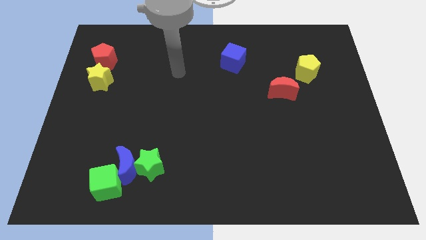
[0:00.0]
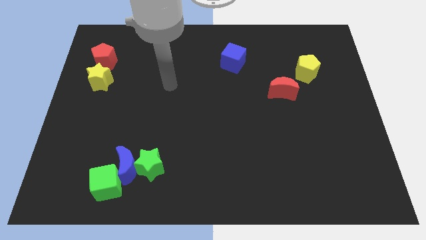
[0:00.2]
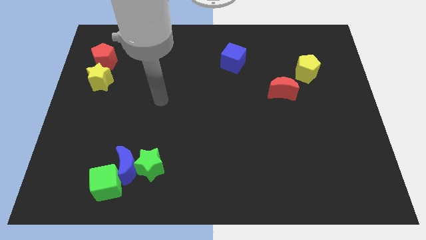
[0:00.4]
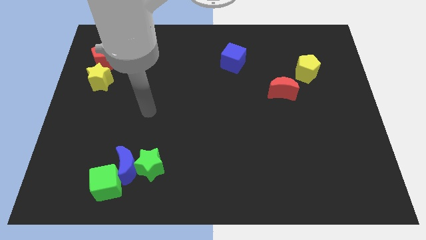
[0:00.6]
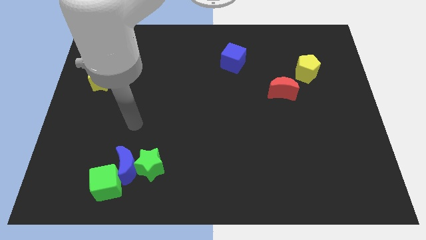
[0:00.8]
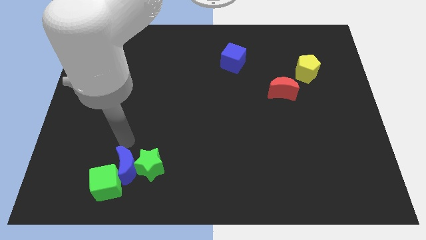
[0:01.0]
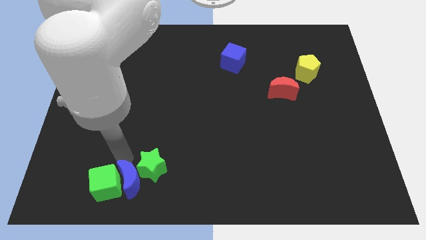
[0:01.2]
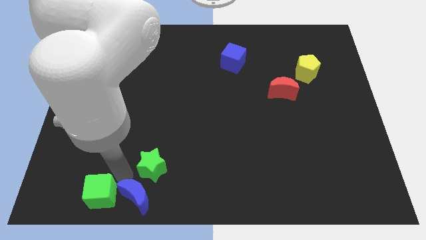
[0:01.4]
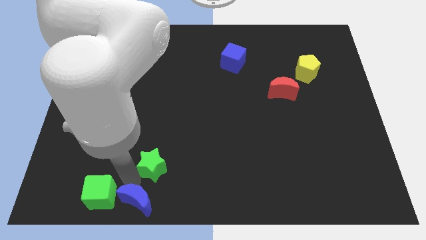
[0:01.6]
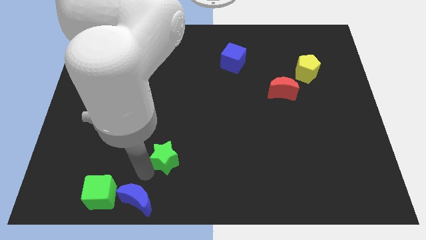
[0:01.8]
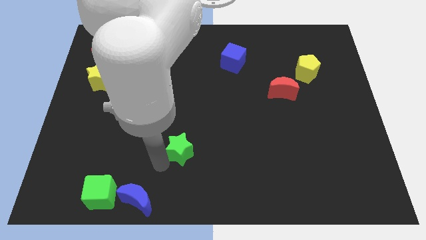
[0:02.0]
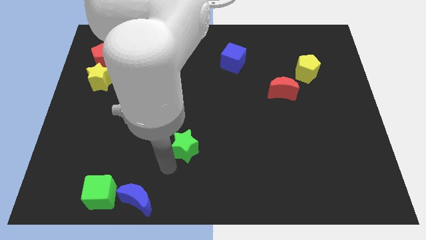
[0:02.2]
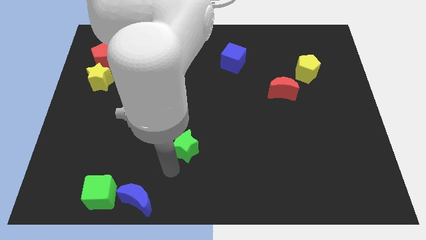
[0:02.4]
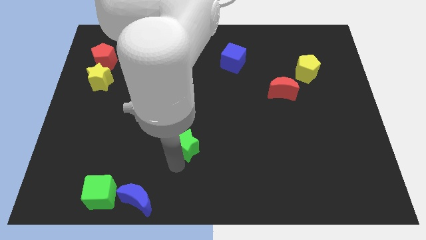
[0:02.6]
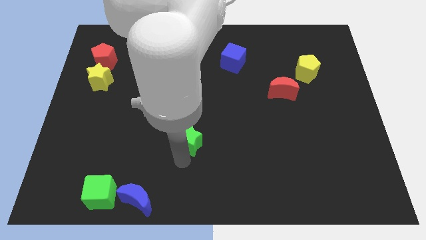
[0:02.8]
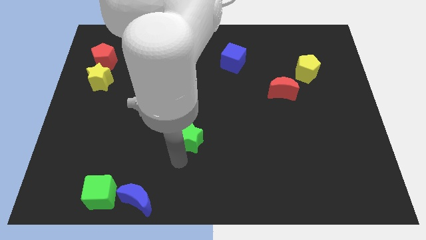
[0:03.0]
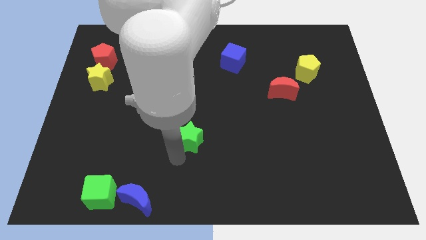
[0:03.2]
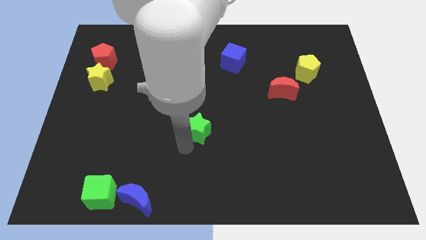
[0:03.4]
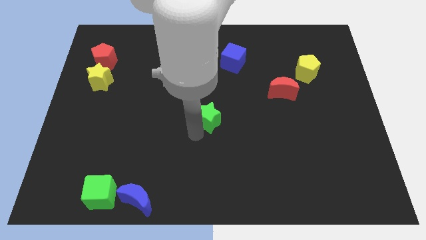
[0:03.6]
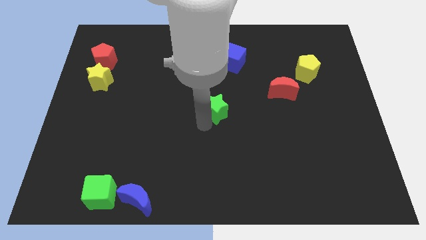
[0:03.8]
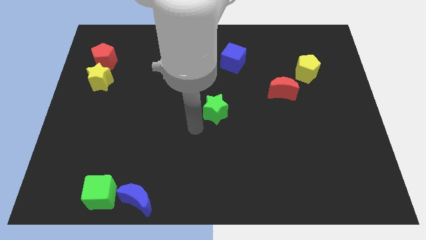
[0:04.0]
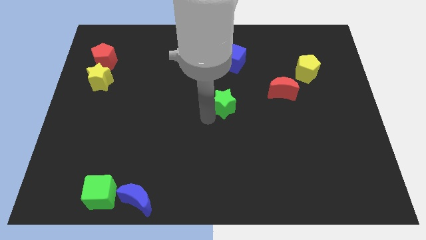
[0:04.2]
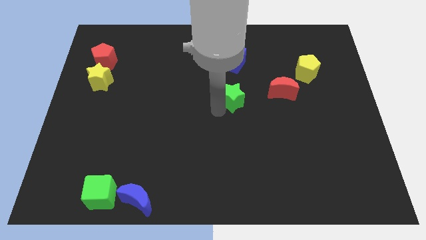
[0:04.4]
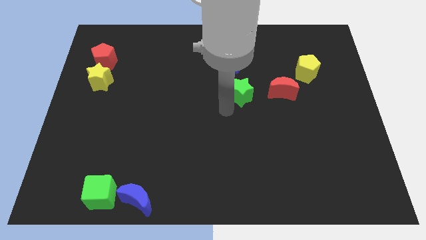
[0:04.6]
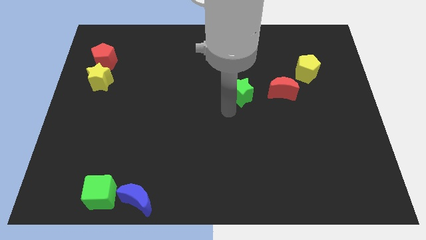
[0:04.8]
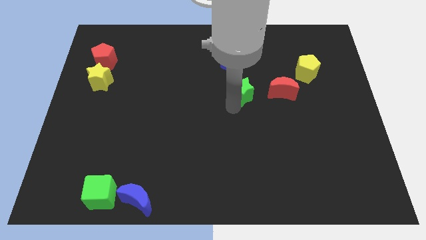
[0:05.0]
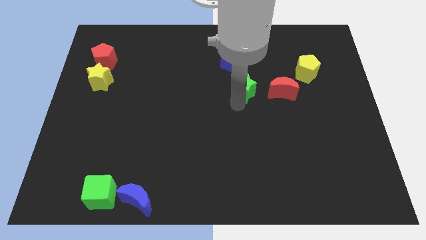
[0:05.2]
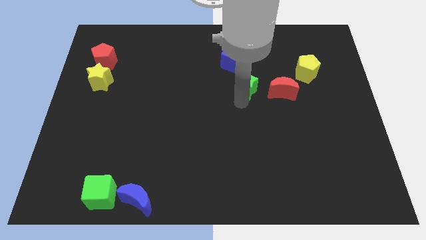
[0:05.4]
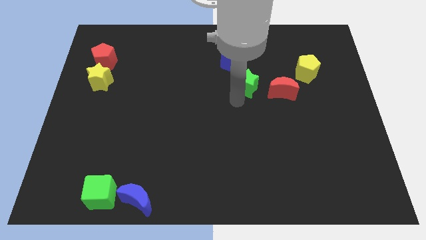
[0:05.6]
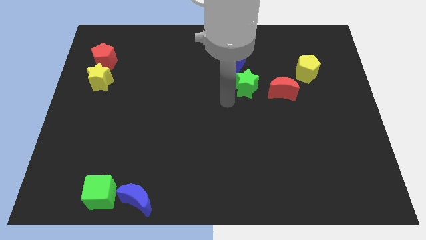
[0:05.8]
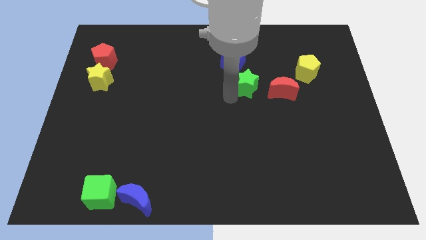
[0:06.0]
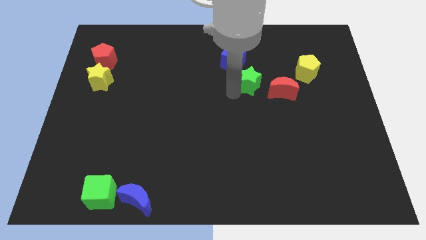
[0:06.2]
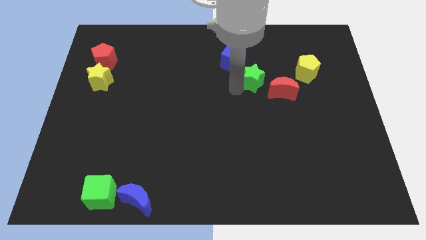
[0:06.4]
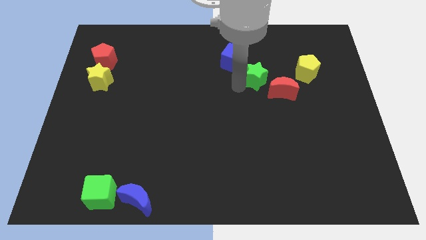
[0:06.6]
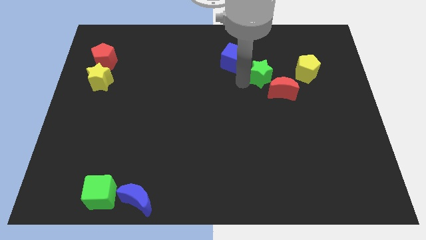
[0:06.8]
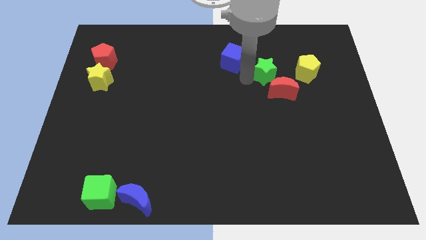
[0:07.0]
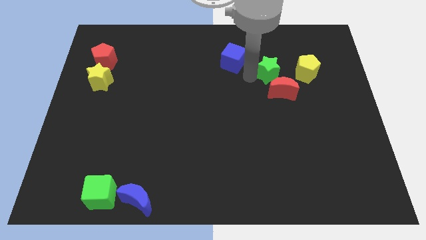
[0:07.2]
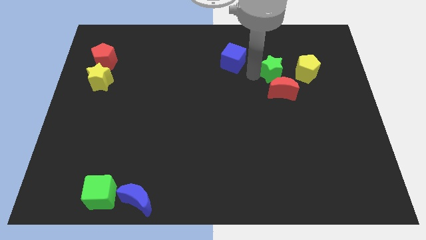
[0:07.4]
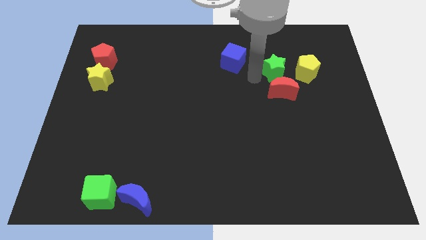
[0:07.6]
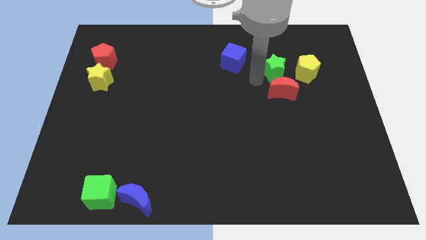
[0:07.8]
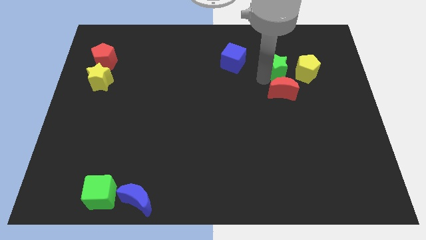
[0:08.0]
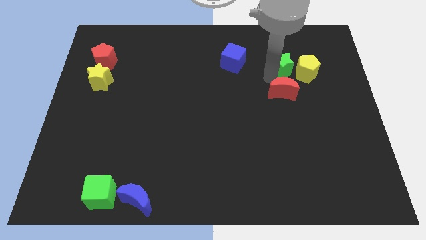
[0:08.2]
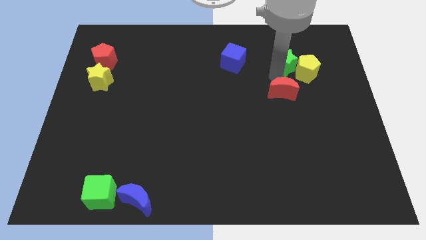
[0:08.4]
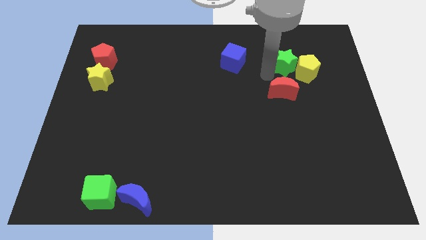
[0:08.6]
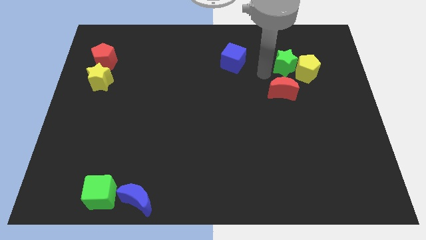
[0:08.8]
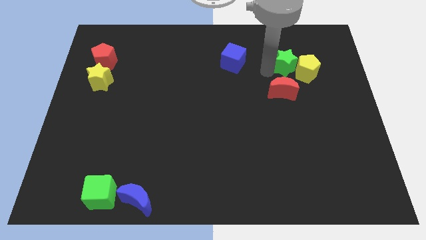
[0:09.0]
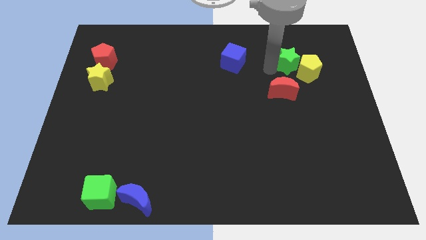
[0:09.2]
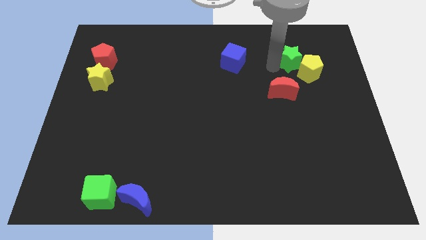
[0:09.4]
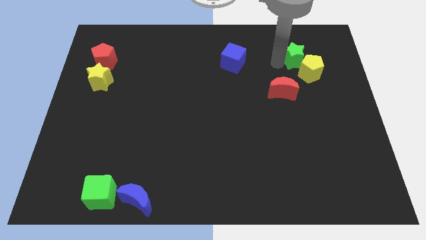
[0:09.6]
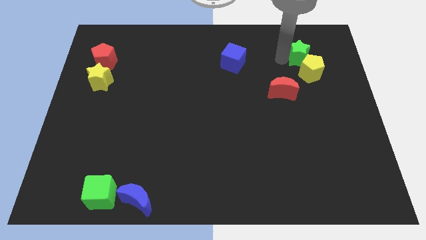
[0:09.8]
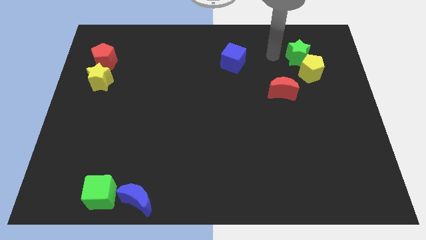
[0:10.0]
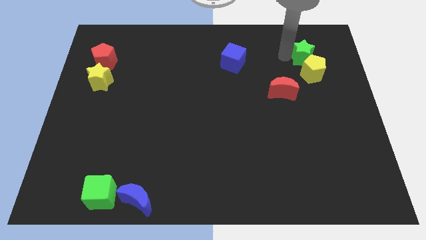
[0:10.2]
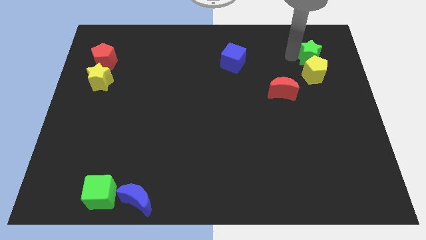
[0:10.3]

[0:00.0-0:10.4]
slide the green star to the top right of the yellow pentagon

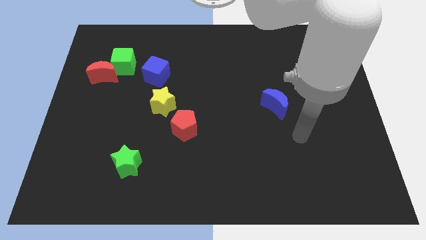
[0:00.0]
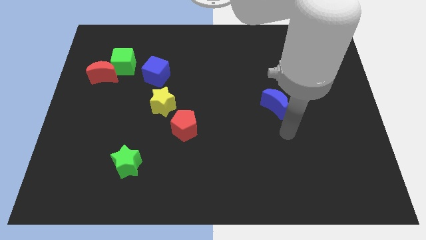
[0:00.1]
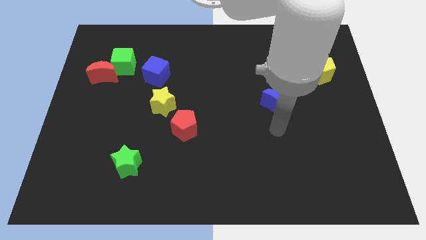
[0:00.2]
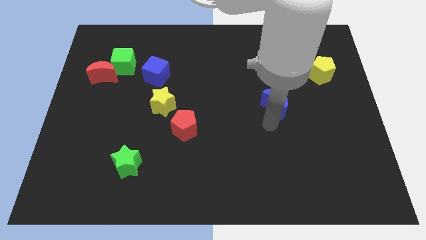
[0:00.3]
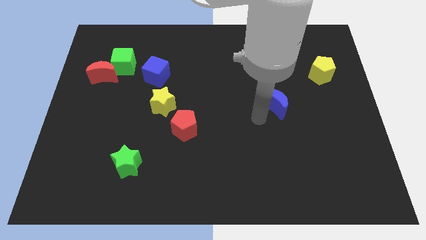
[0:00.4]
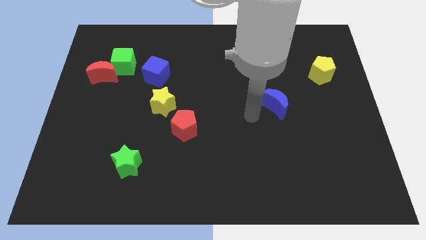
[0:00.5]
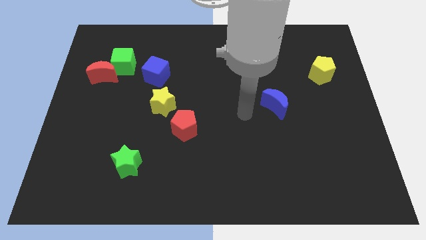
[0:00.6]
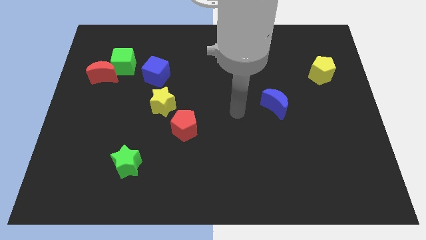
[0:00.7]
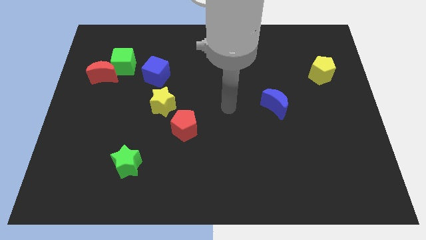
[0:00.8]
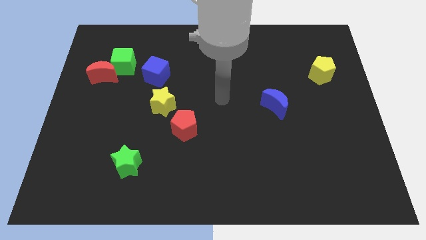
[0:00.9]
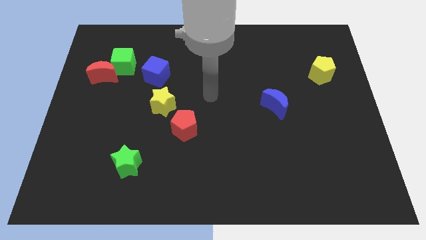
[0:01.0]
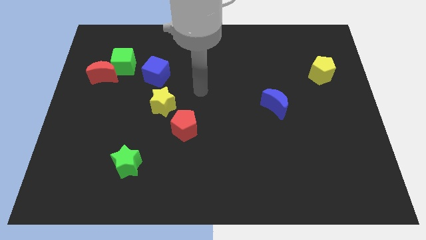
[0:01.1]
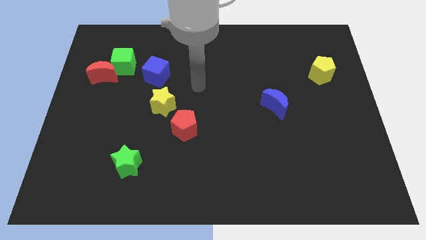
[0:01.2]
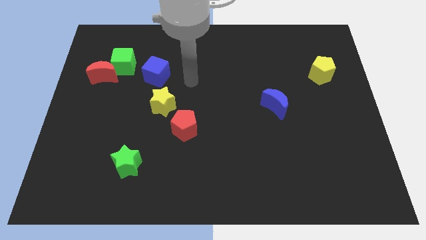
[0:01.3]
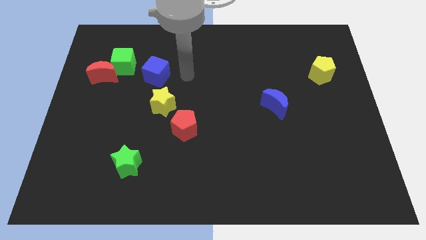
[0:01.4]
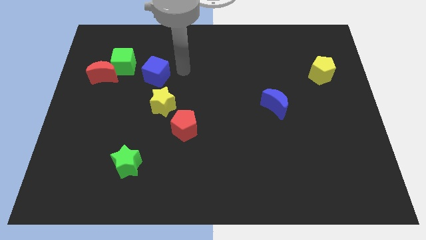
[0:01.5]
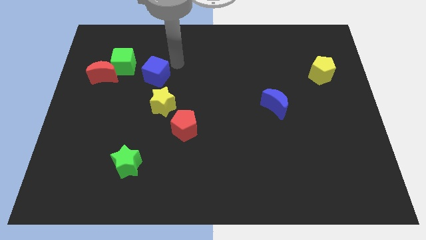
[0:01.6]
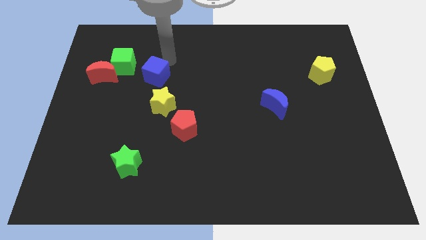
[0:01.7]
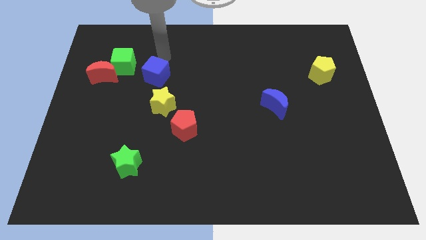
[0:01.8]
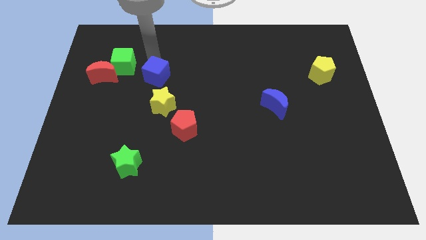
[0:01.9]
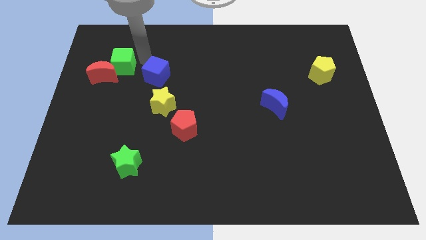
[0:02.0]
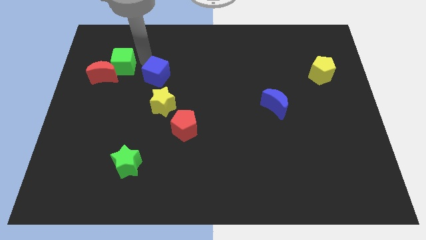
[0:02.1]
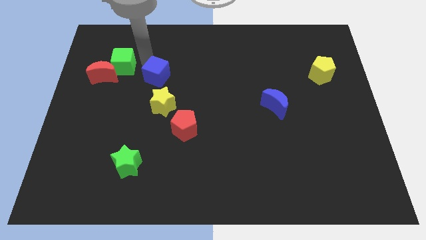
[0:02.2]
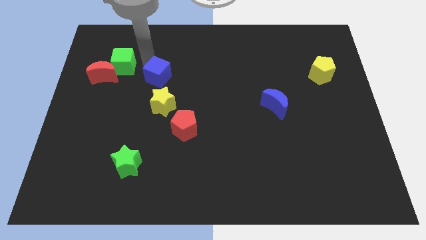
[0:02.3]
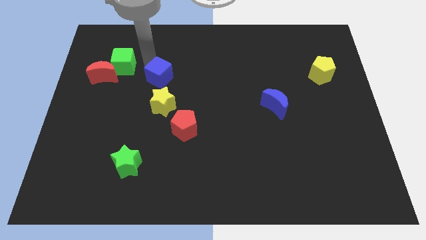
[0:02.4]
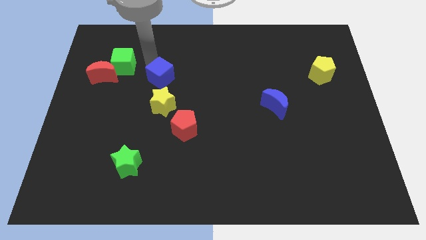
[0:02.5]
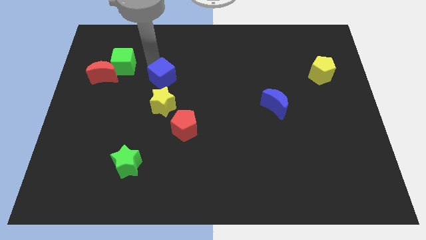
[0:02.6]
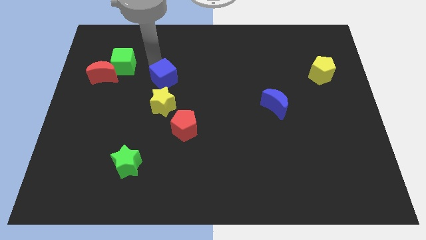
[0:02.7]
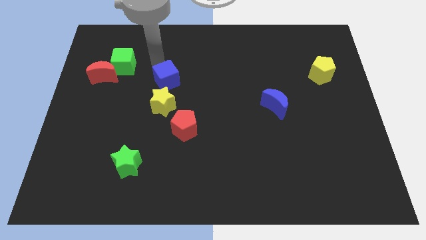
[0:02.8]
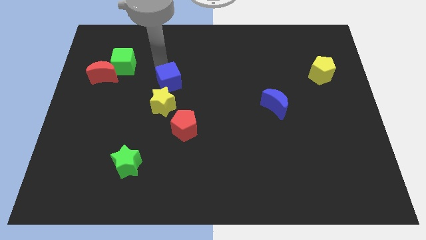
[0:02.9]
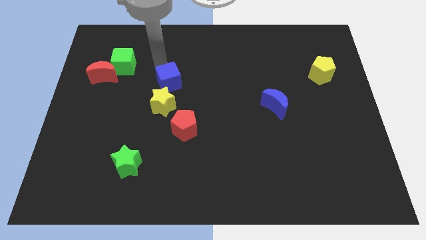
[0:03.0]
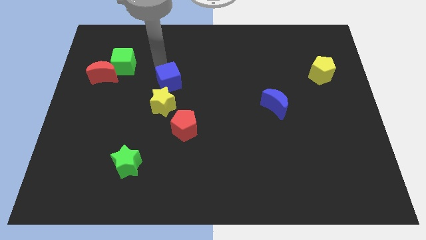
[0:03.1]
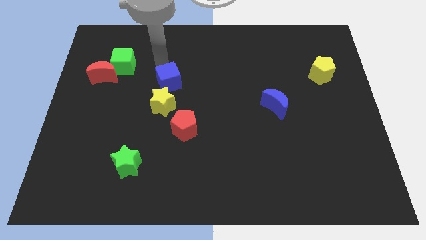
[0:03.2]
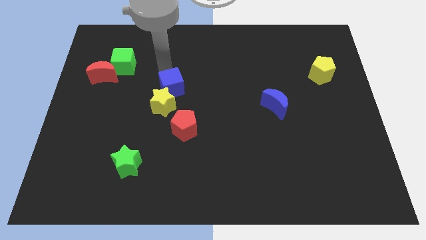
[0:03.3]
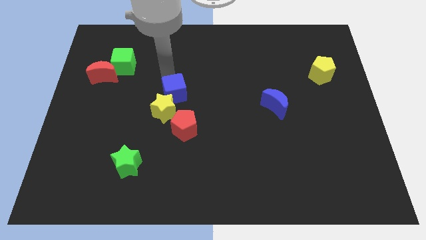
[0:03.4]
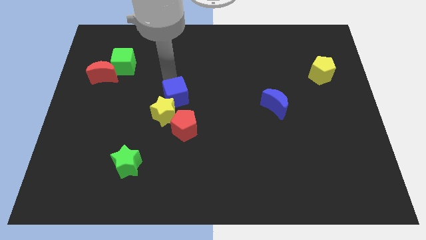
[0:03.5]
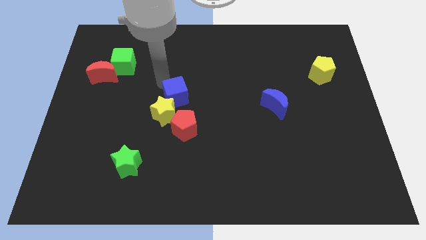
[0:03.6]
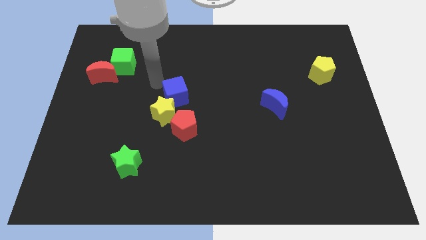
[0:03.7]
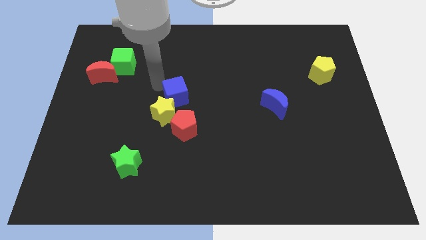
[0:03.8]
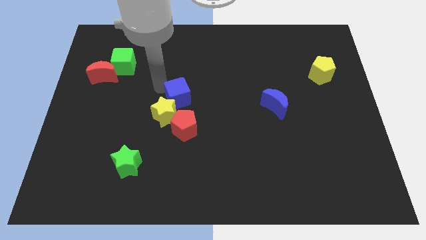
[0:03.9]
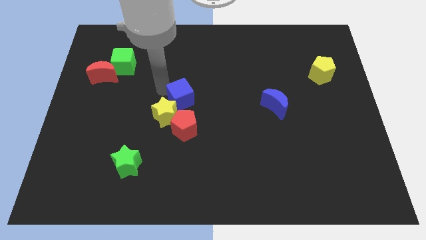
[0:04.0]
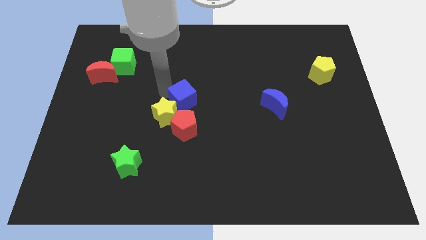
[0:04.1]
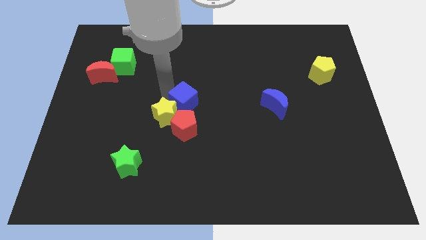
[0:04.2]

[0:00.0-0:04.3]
put the blue cube right of the yellow star
